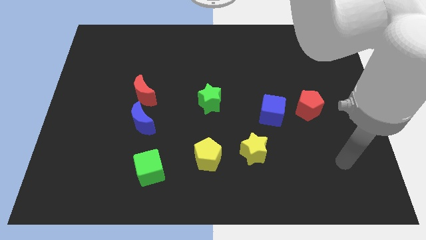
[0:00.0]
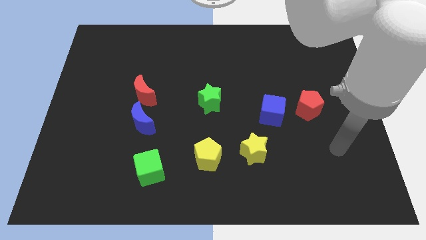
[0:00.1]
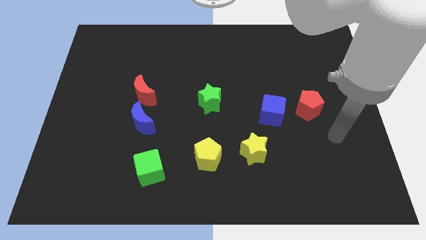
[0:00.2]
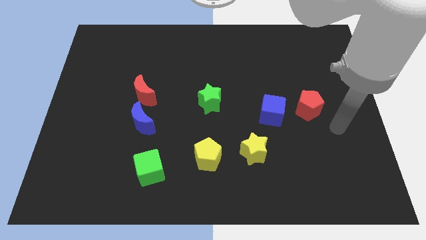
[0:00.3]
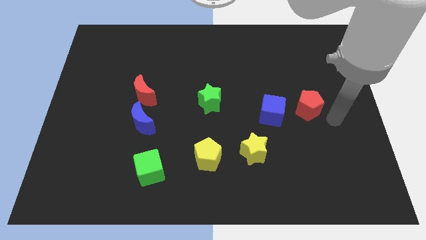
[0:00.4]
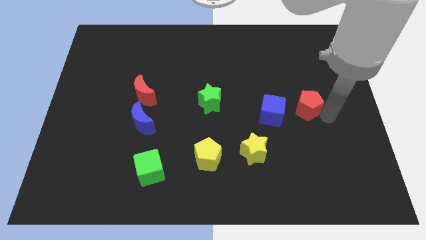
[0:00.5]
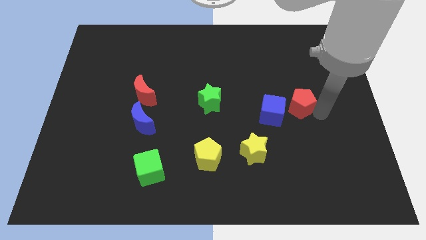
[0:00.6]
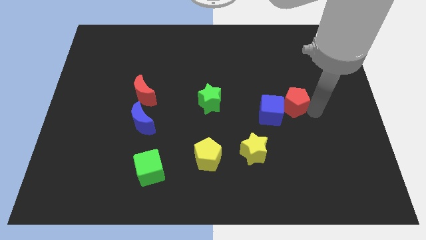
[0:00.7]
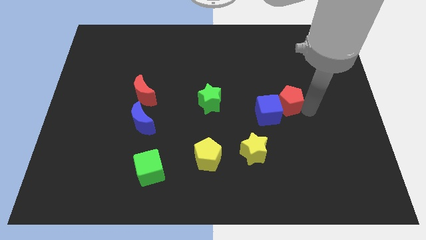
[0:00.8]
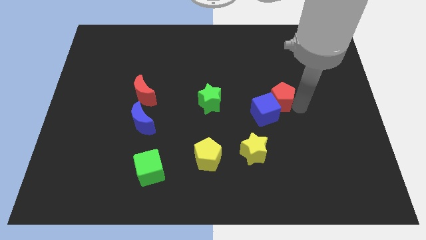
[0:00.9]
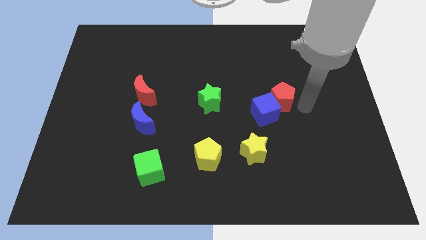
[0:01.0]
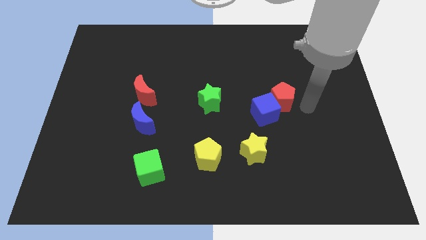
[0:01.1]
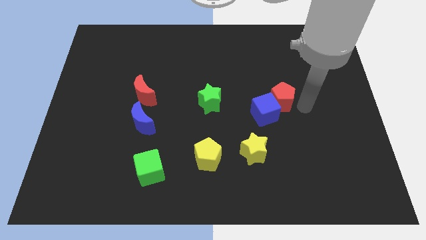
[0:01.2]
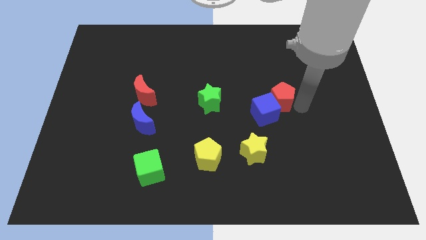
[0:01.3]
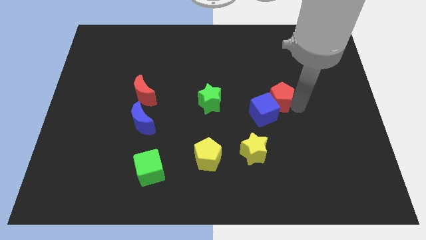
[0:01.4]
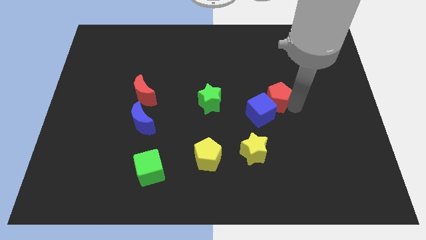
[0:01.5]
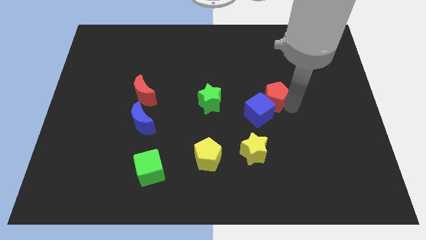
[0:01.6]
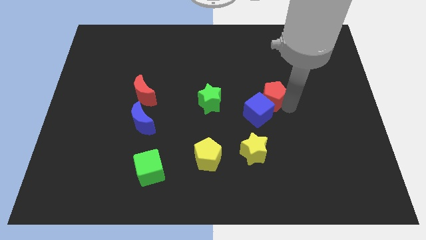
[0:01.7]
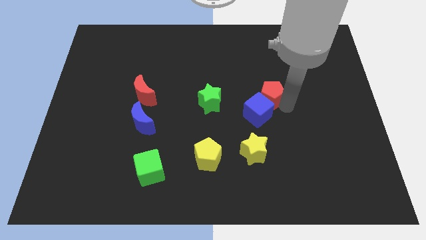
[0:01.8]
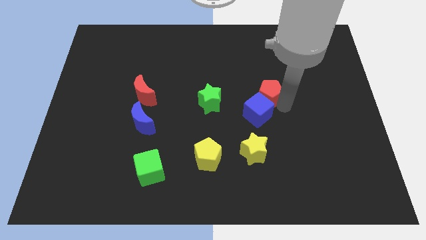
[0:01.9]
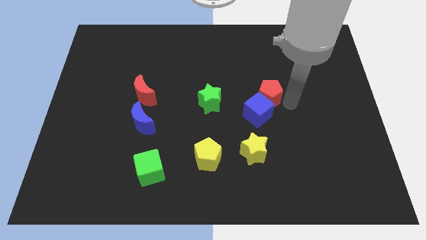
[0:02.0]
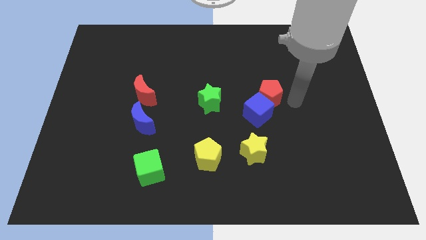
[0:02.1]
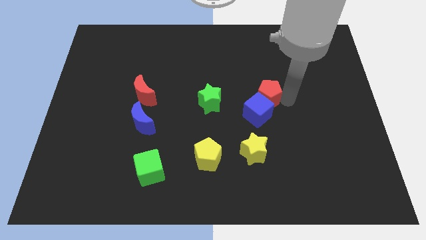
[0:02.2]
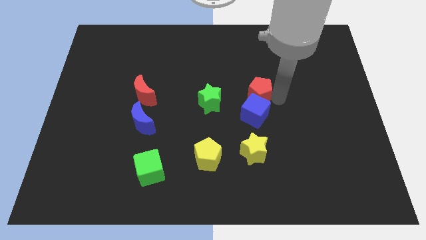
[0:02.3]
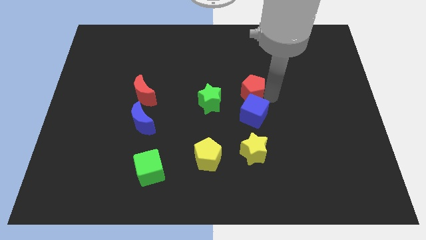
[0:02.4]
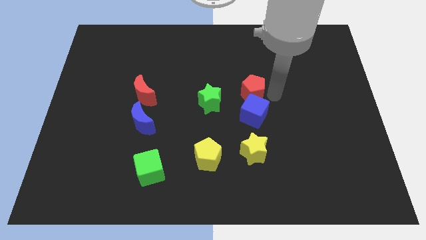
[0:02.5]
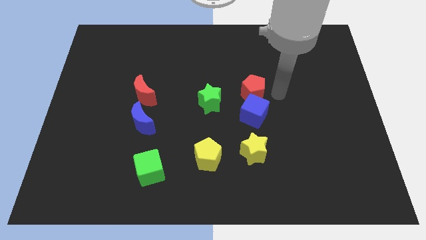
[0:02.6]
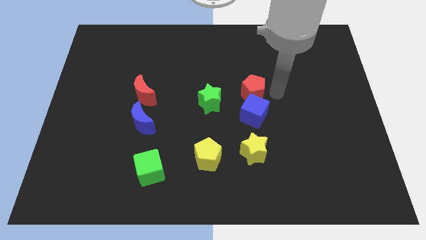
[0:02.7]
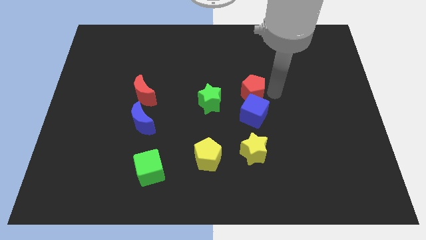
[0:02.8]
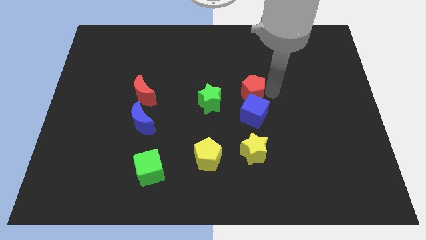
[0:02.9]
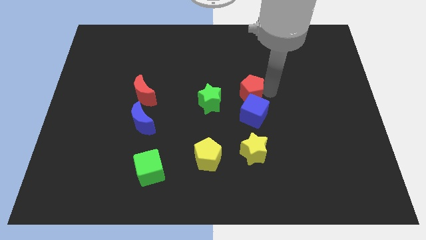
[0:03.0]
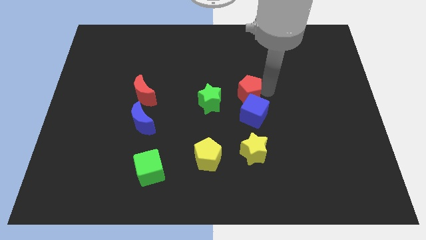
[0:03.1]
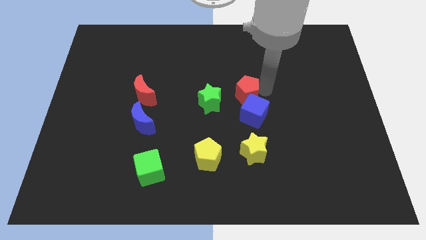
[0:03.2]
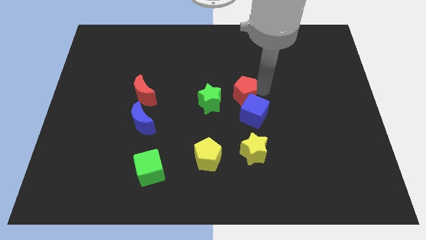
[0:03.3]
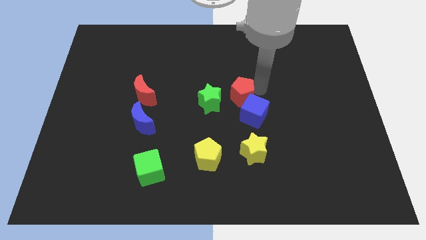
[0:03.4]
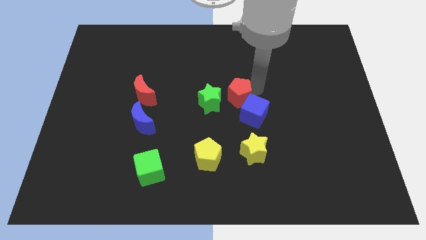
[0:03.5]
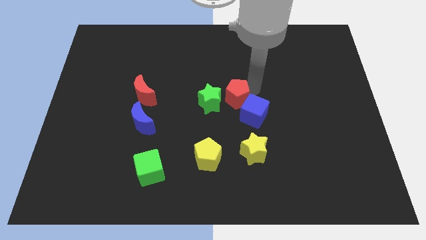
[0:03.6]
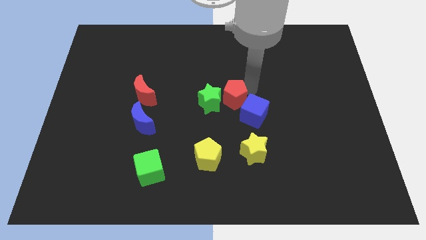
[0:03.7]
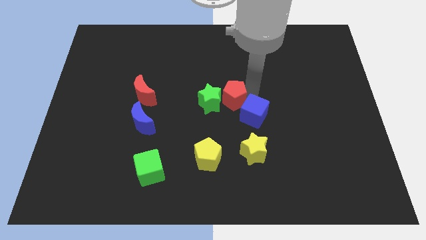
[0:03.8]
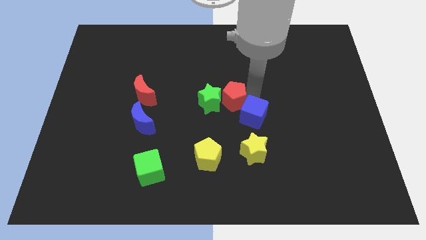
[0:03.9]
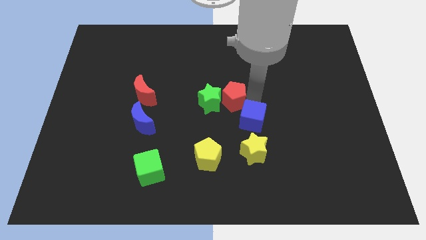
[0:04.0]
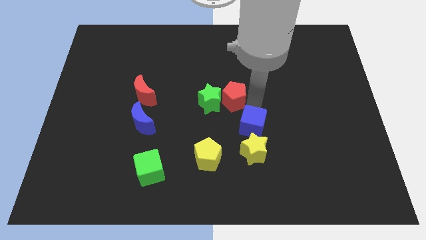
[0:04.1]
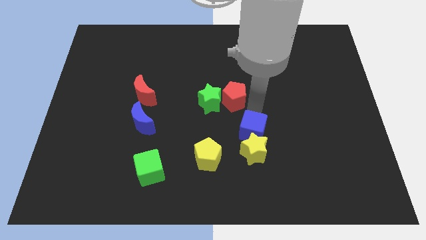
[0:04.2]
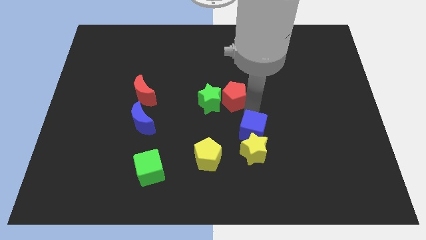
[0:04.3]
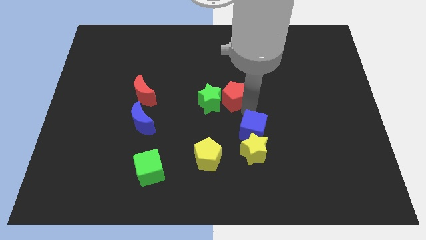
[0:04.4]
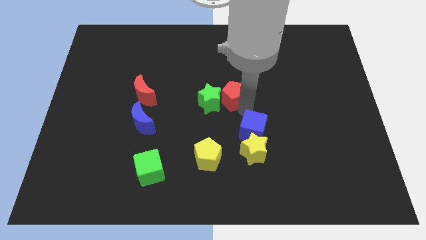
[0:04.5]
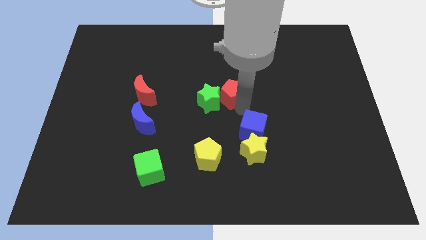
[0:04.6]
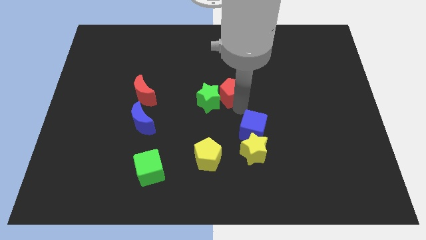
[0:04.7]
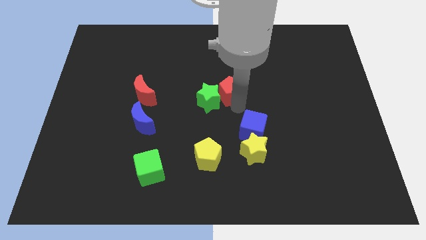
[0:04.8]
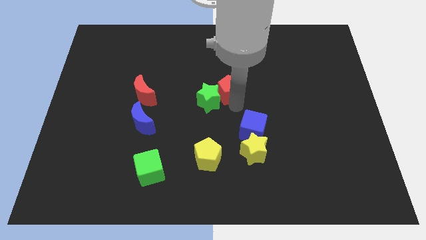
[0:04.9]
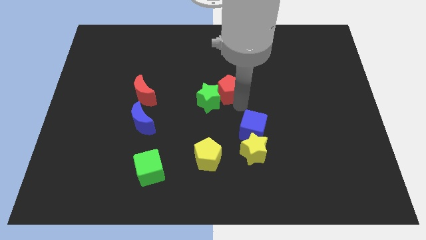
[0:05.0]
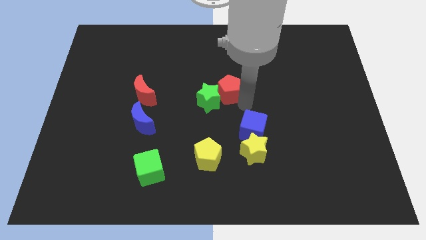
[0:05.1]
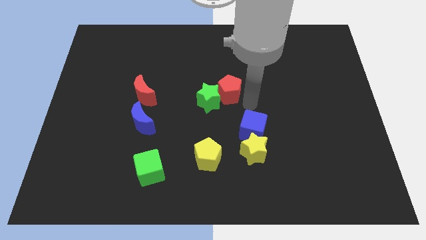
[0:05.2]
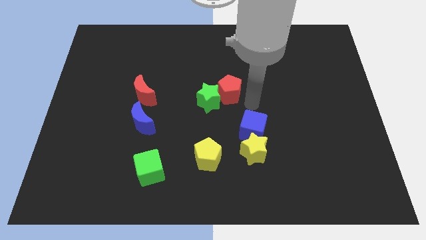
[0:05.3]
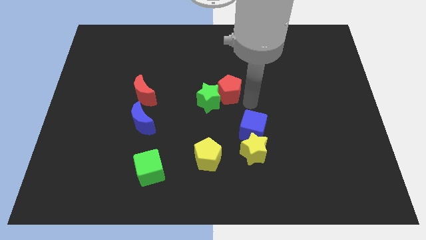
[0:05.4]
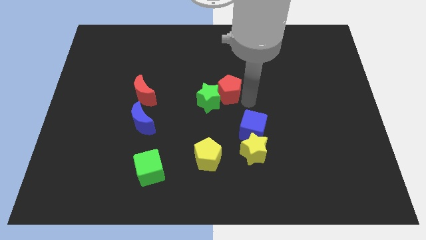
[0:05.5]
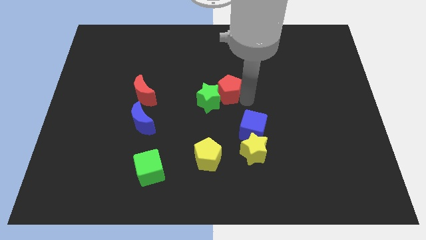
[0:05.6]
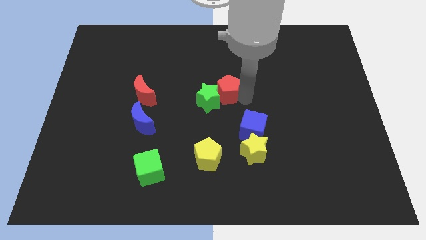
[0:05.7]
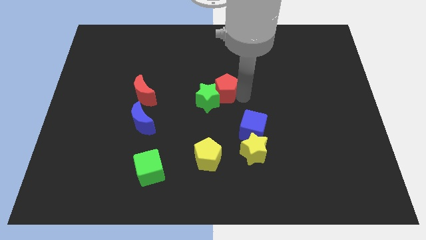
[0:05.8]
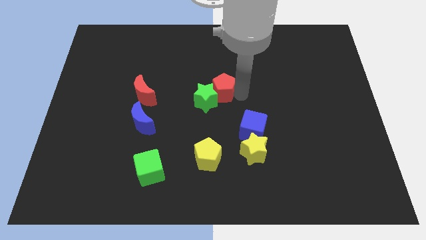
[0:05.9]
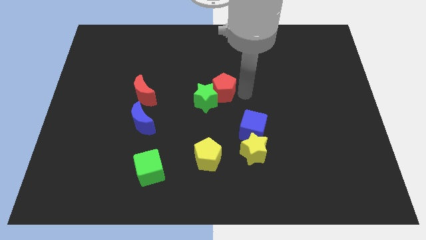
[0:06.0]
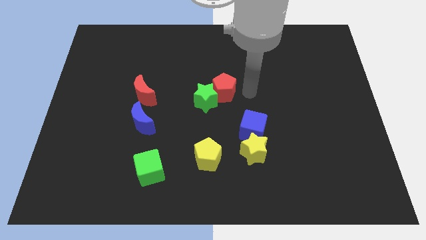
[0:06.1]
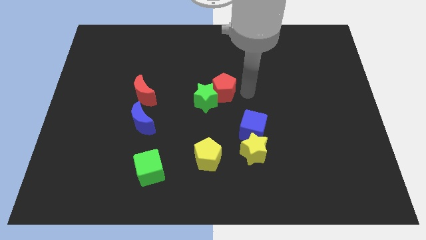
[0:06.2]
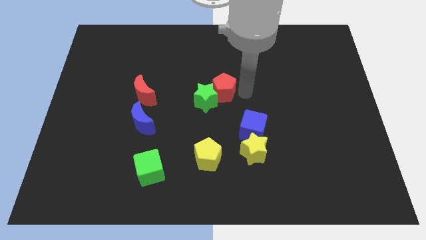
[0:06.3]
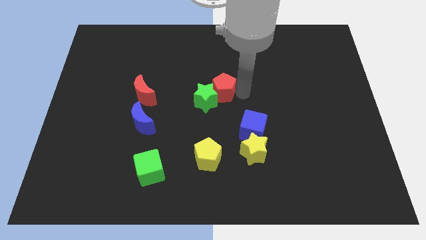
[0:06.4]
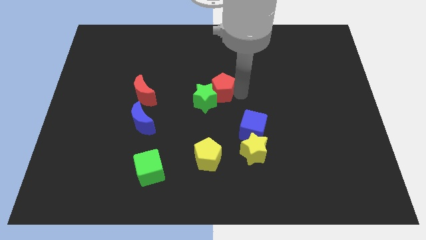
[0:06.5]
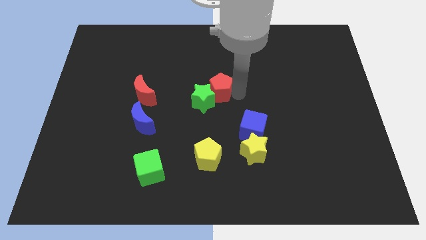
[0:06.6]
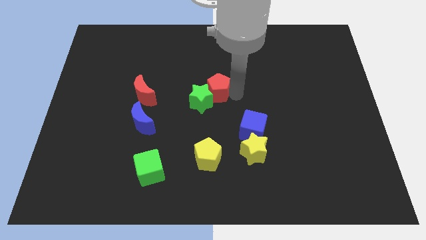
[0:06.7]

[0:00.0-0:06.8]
slide the red pentagon to the left

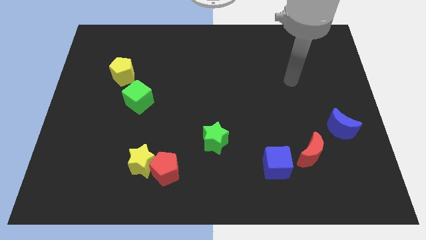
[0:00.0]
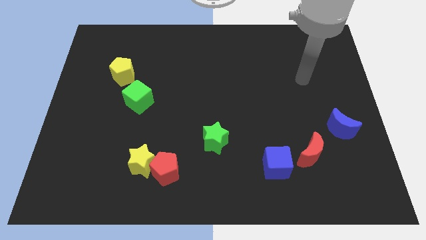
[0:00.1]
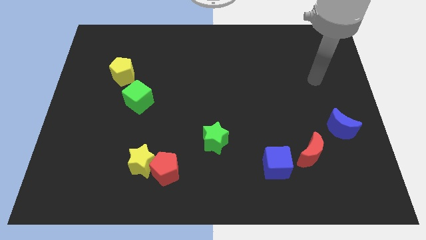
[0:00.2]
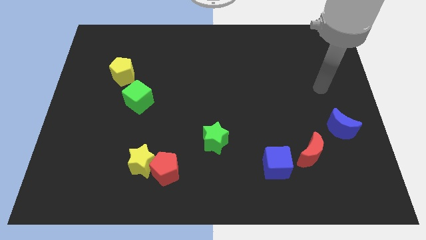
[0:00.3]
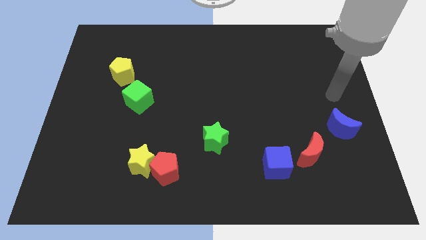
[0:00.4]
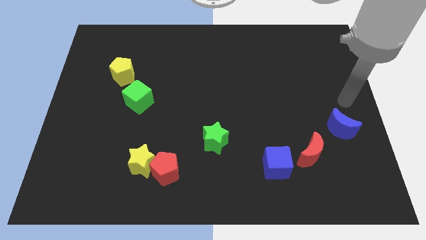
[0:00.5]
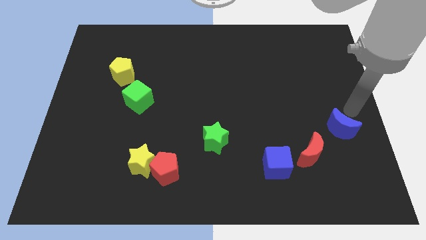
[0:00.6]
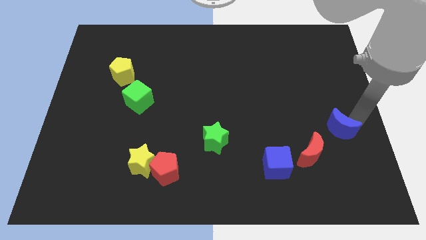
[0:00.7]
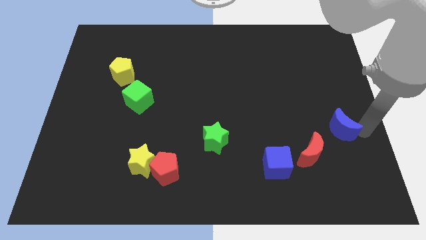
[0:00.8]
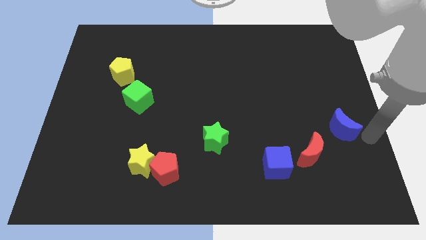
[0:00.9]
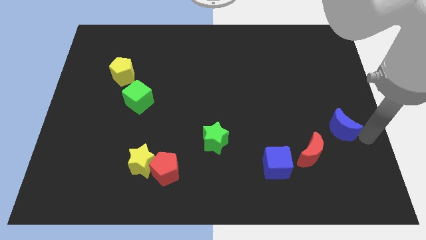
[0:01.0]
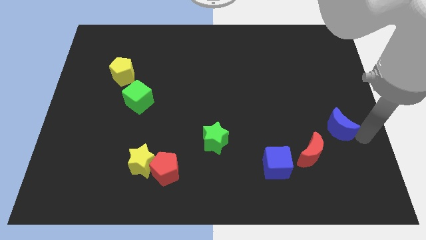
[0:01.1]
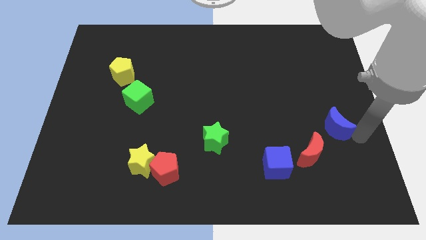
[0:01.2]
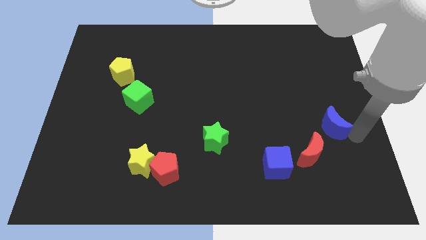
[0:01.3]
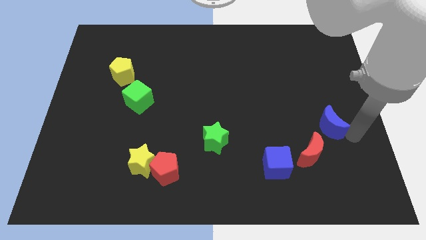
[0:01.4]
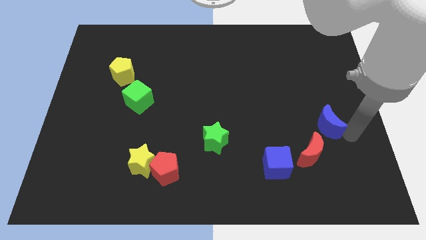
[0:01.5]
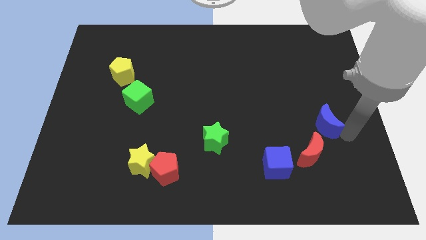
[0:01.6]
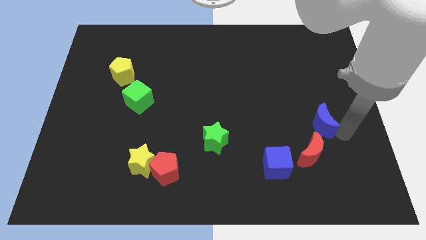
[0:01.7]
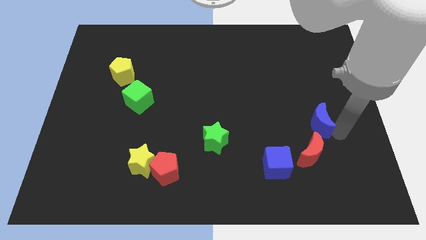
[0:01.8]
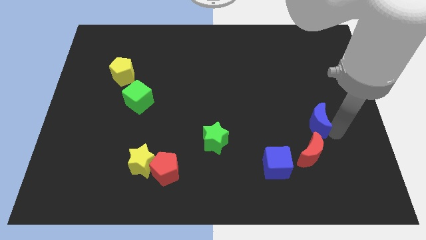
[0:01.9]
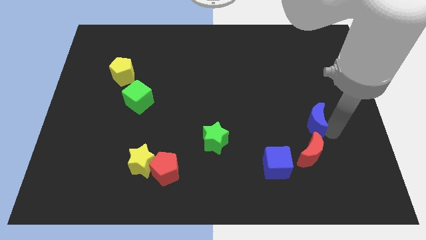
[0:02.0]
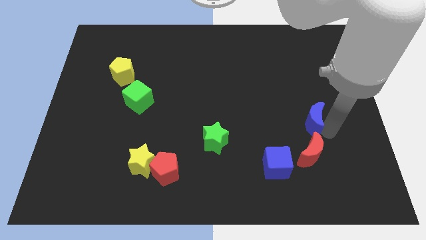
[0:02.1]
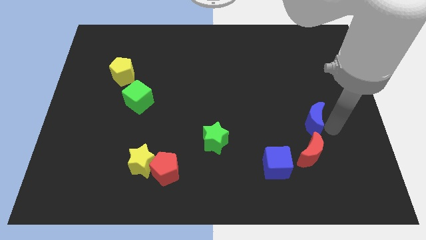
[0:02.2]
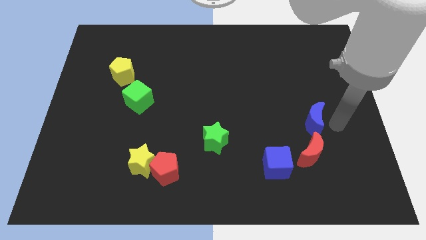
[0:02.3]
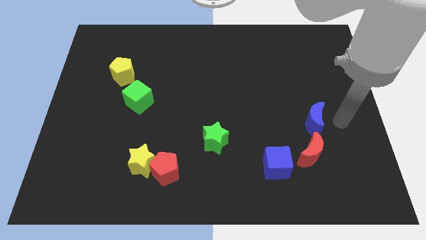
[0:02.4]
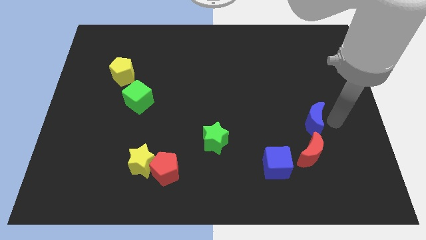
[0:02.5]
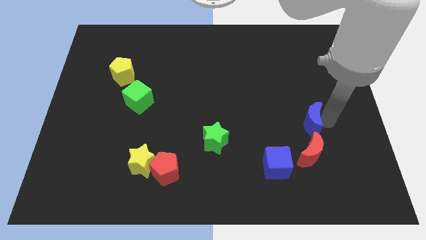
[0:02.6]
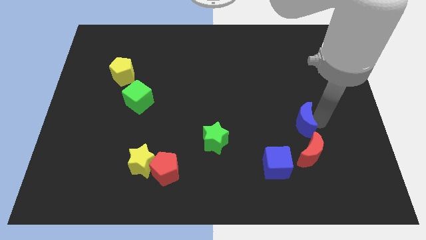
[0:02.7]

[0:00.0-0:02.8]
move the blue moon left slightly
